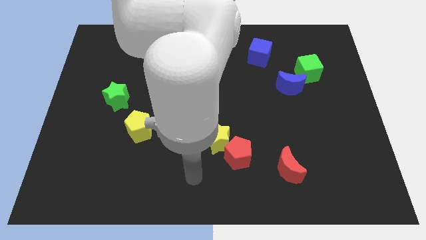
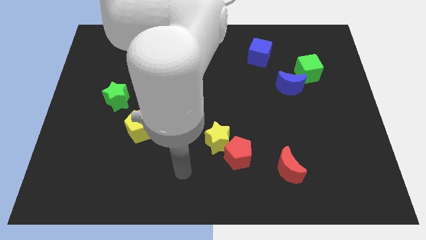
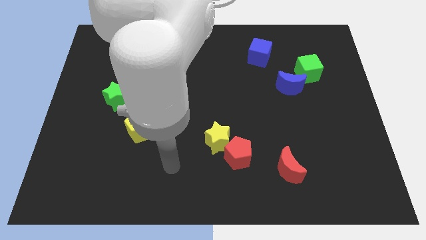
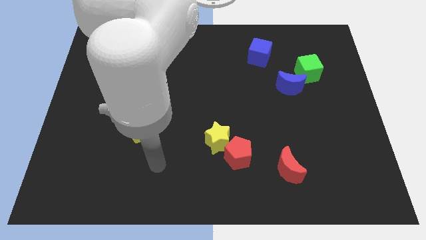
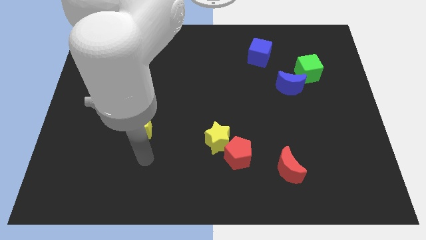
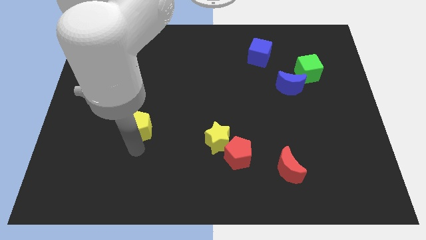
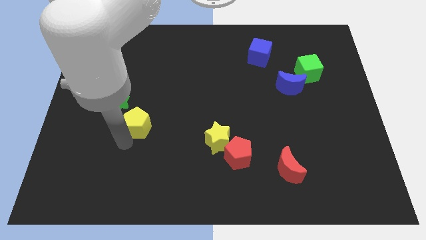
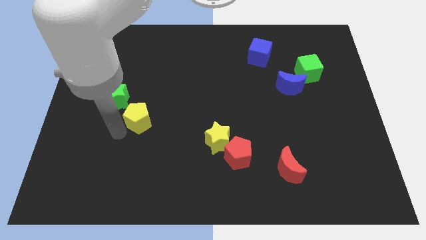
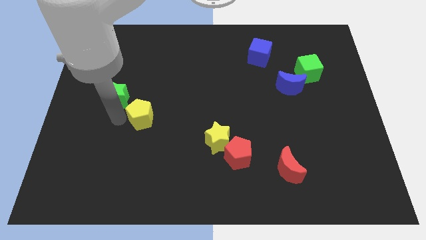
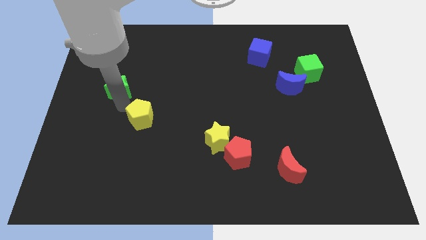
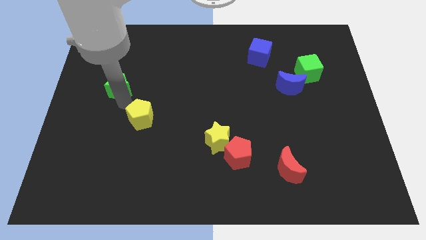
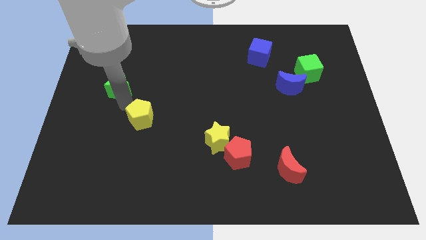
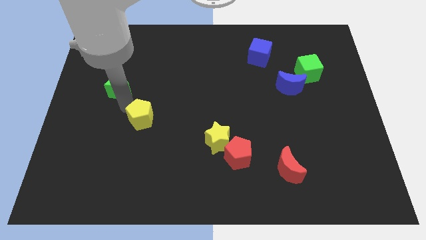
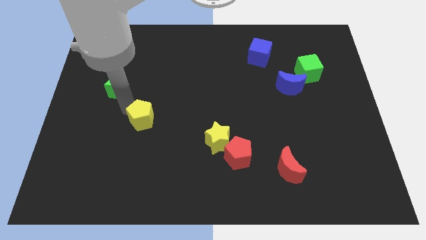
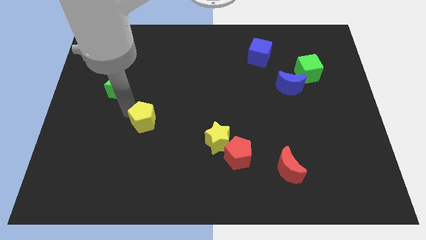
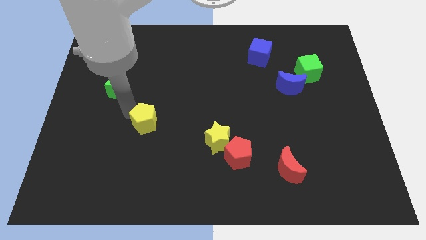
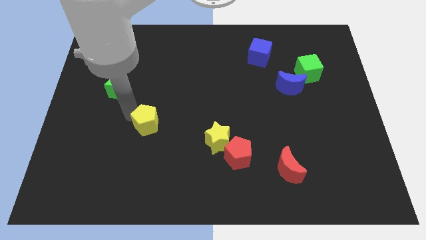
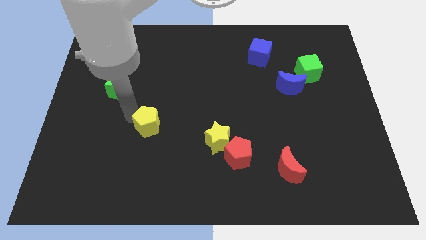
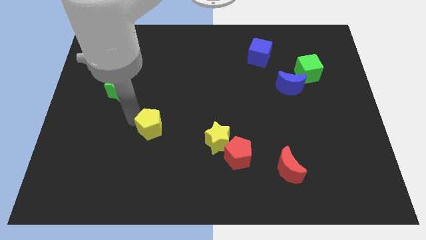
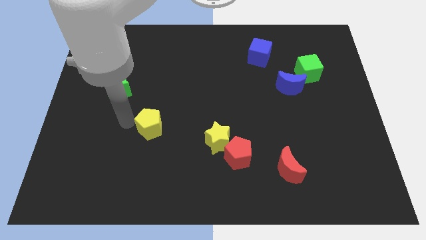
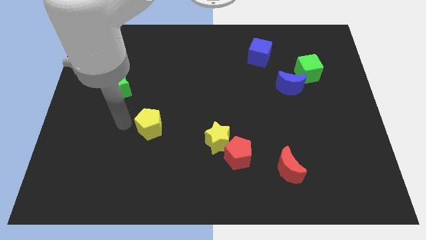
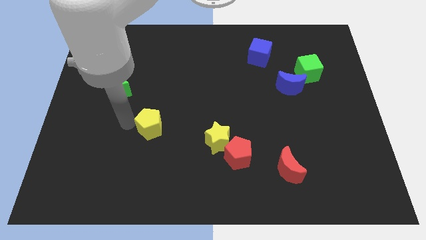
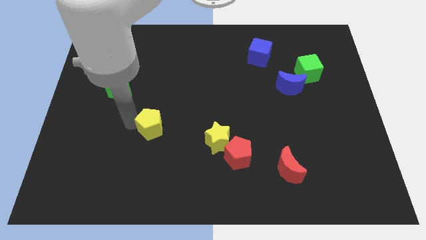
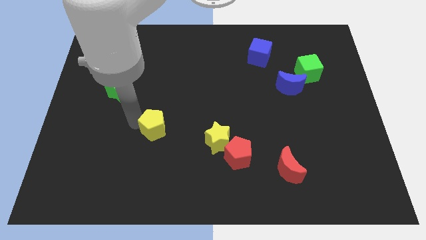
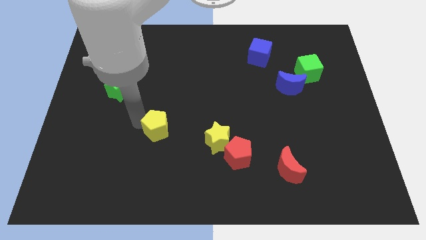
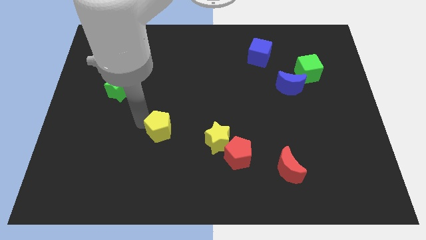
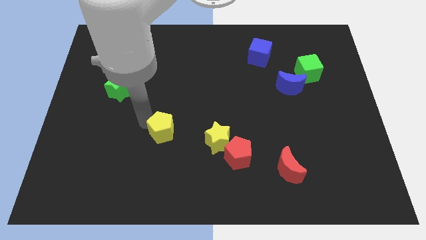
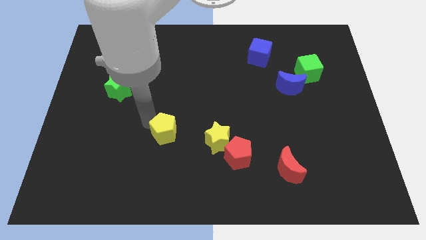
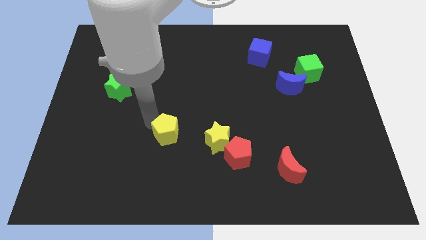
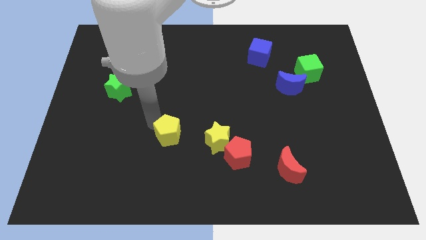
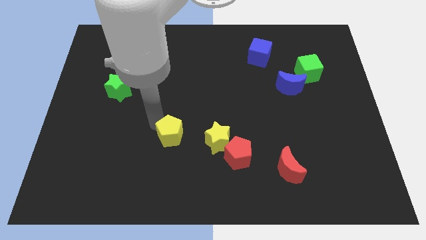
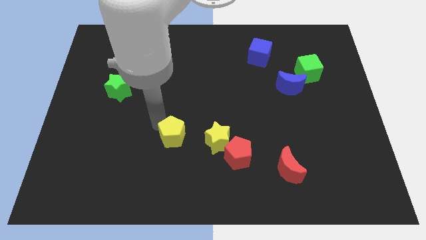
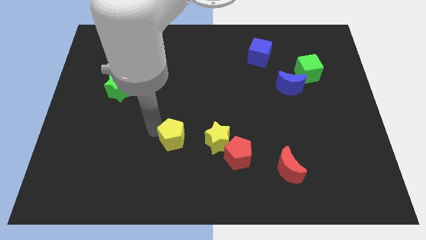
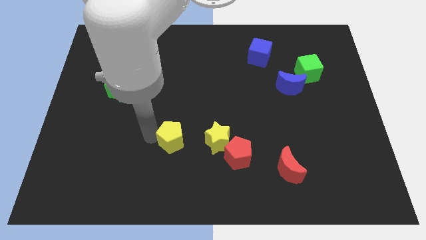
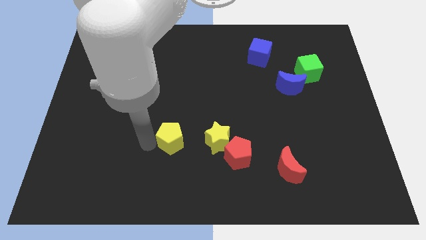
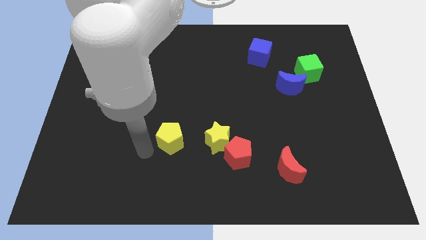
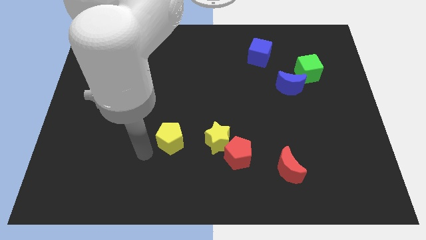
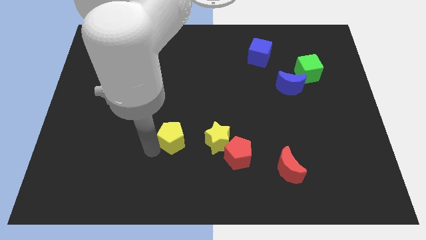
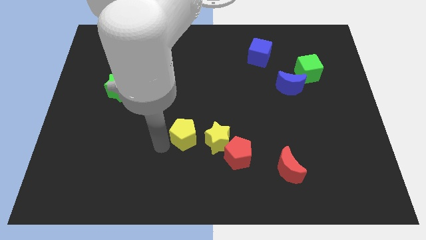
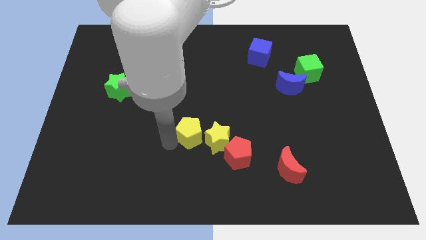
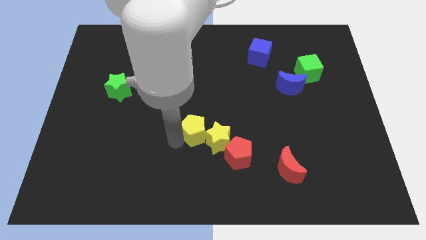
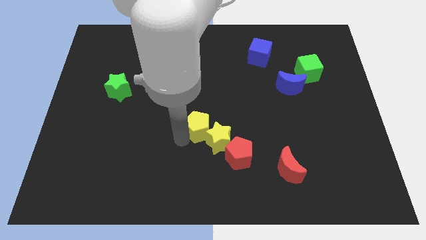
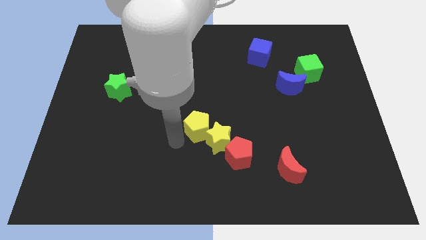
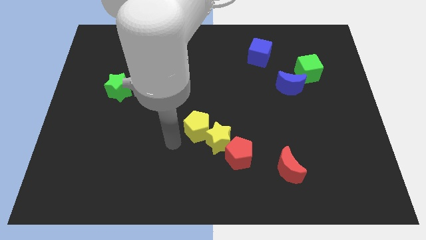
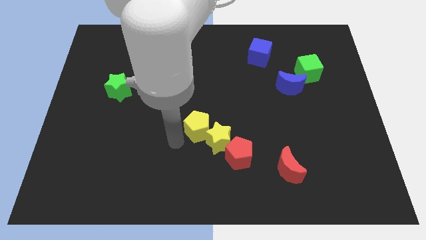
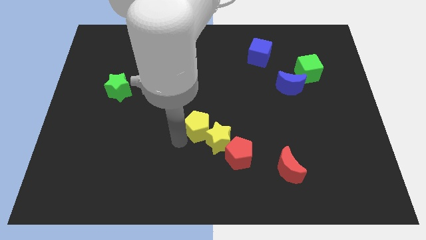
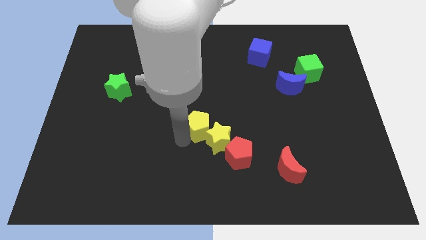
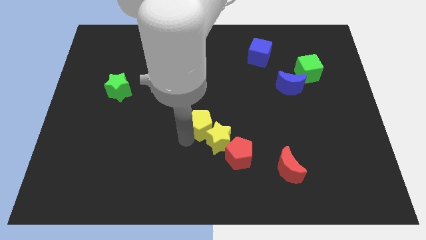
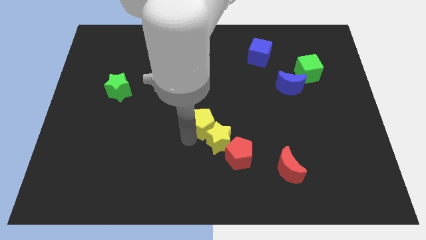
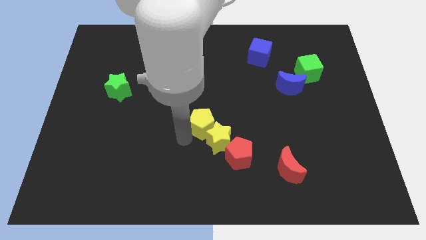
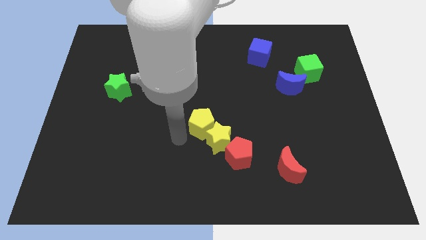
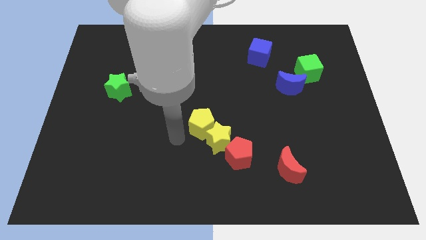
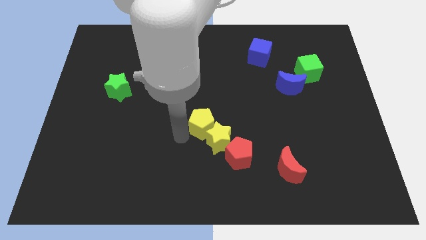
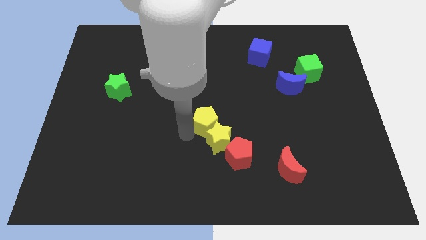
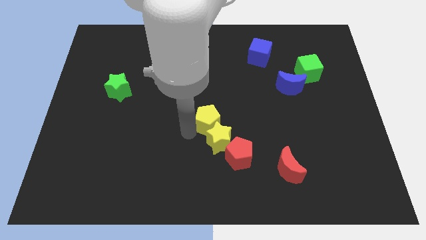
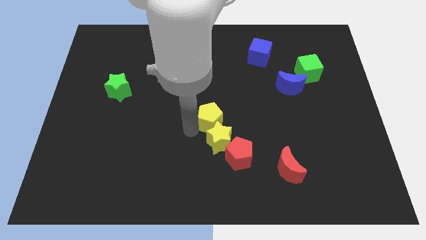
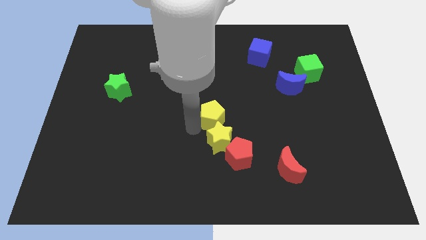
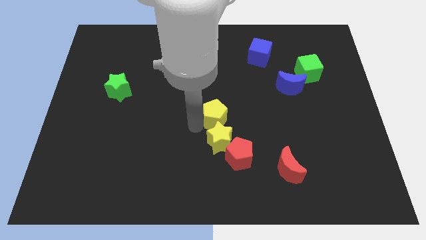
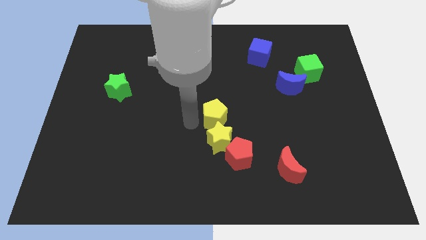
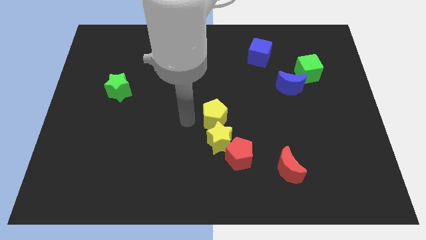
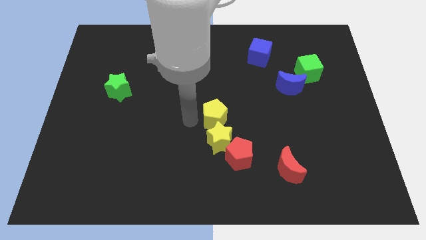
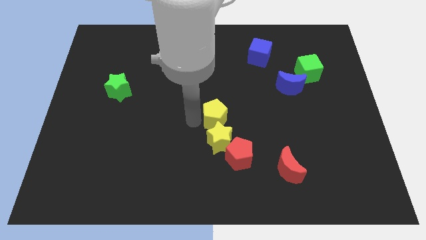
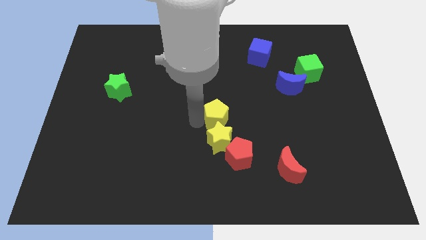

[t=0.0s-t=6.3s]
put the yellow pentagon to the top side of the red pentagon

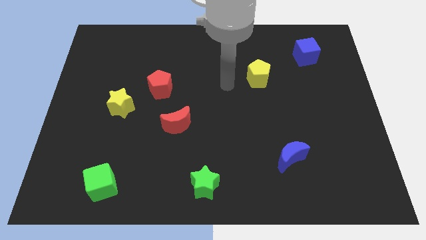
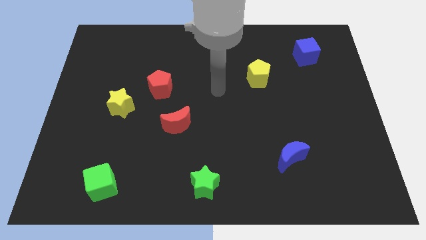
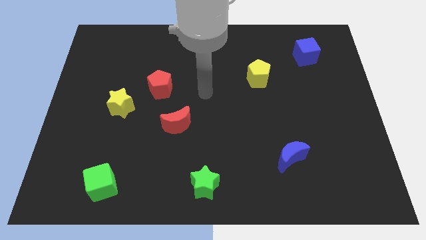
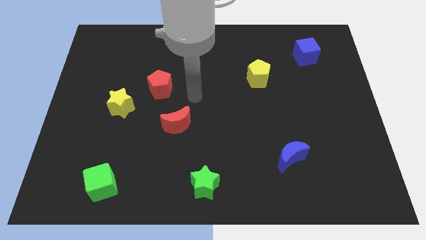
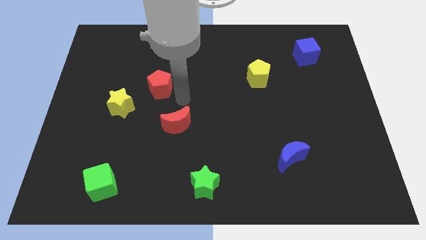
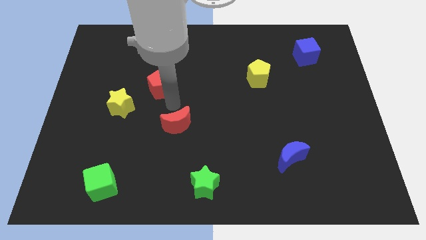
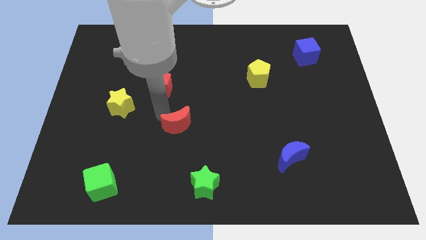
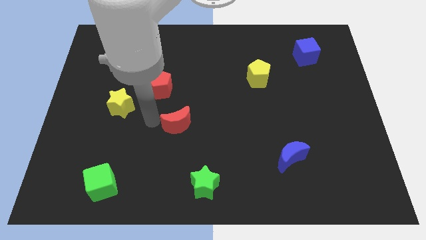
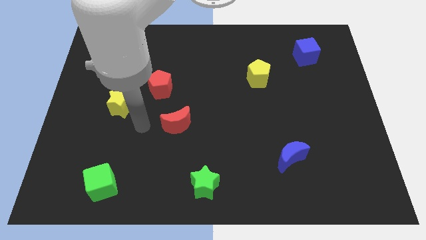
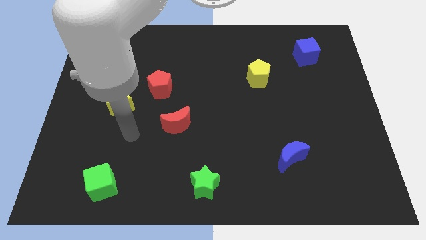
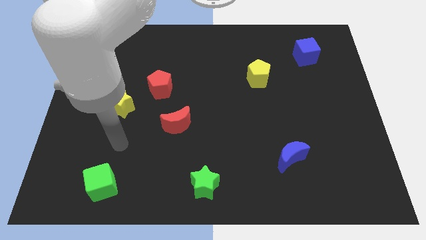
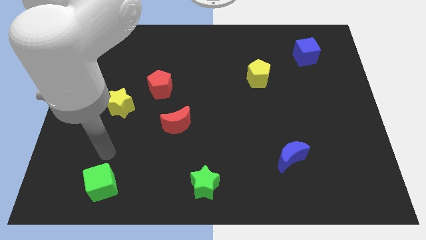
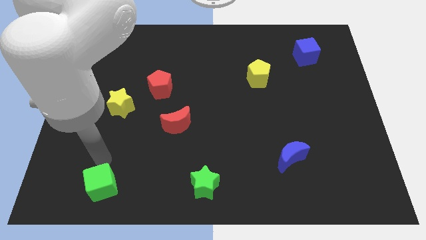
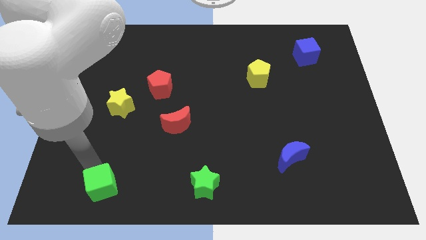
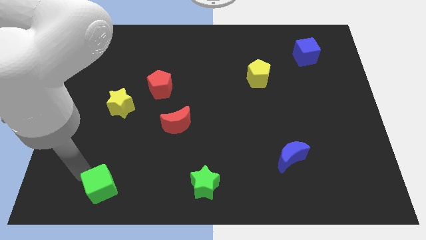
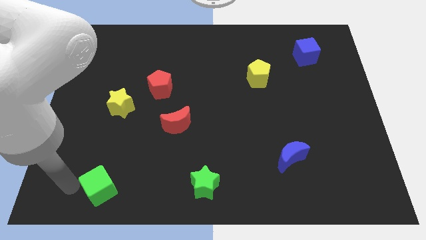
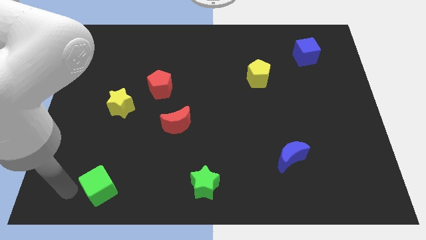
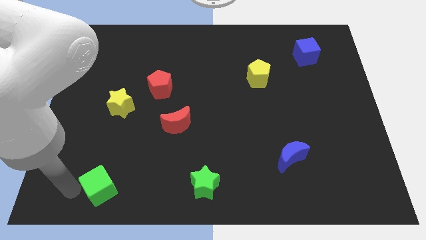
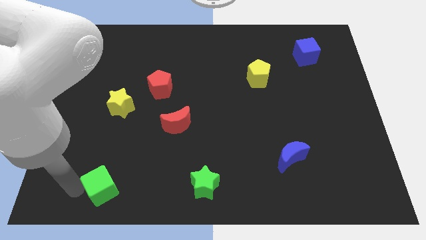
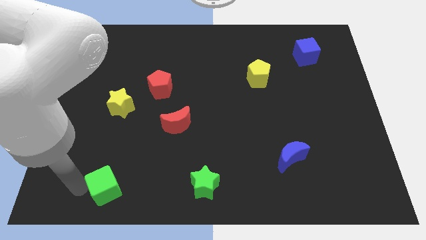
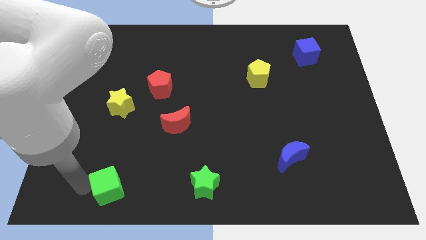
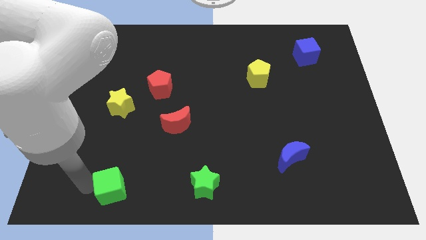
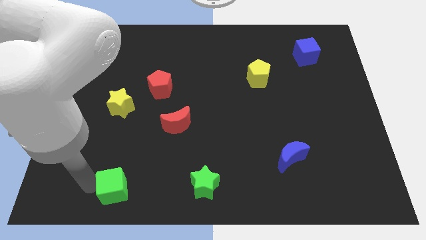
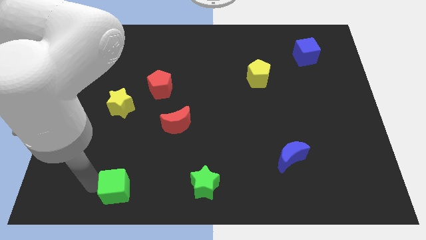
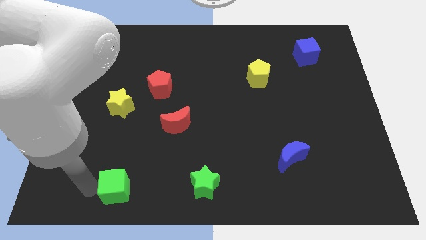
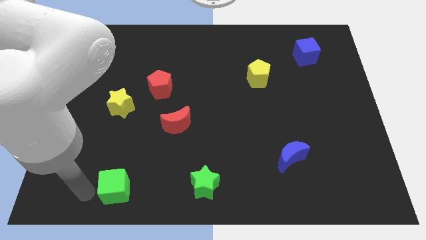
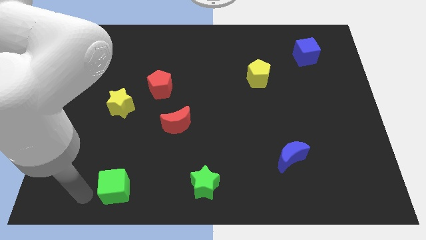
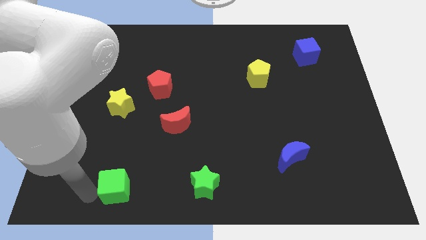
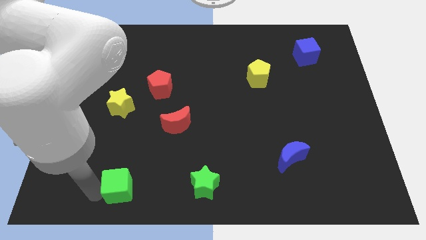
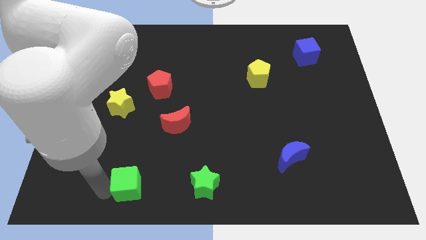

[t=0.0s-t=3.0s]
slide the green cube to the left of the green star
